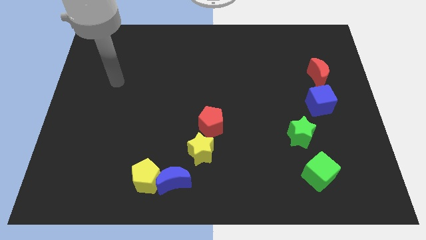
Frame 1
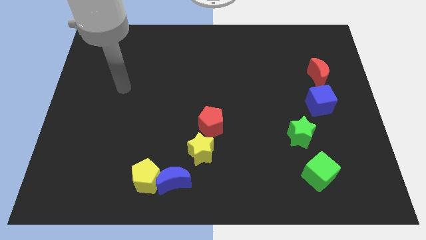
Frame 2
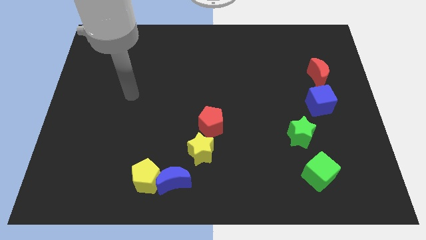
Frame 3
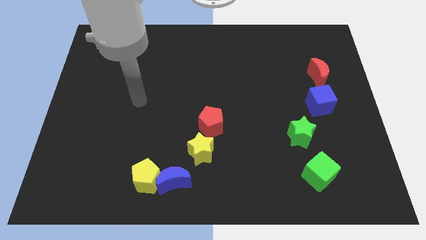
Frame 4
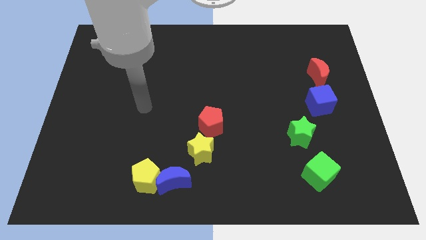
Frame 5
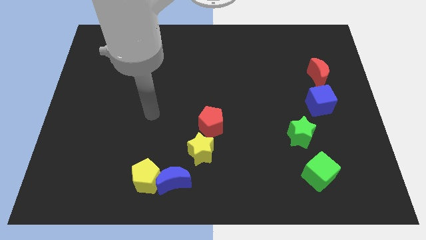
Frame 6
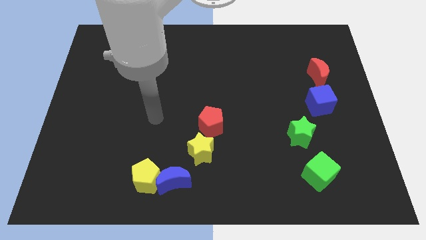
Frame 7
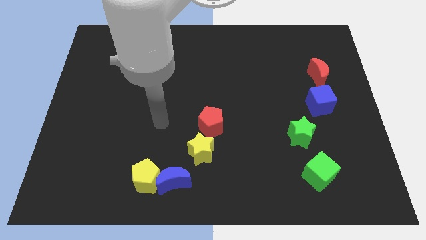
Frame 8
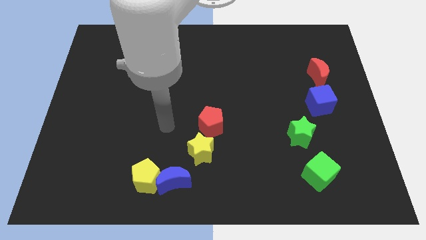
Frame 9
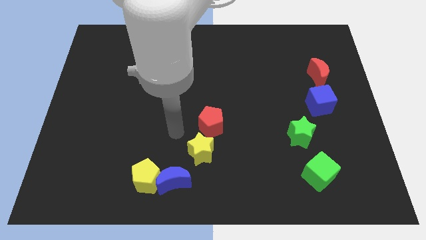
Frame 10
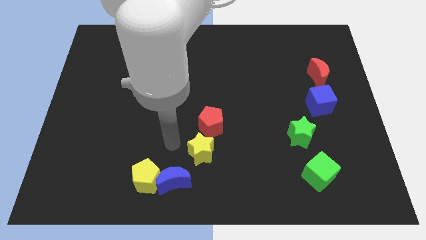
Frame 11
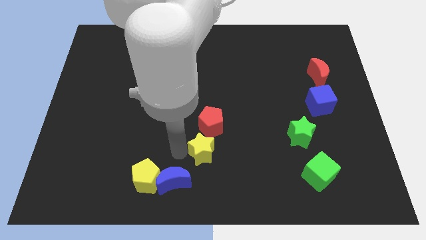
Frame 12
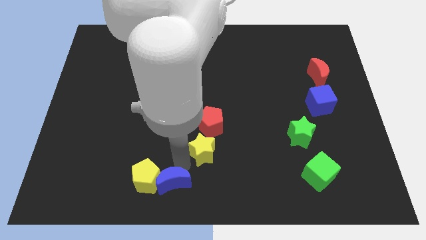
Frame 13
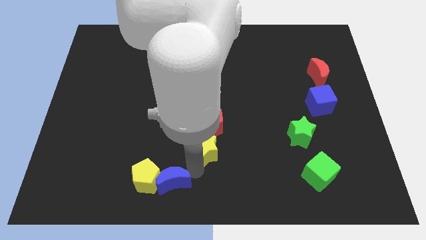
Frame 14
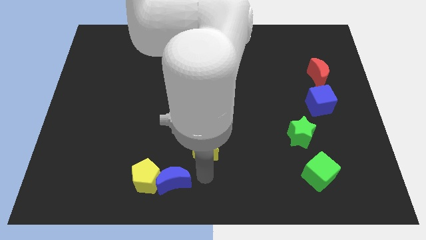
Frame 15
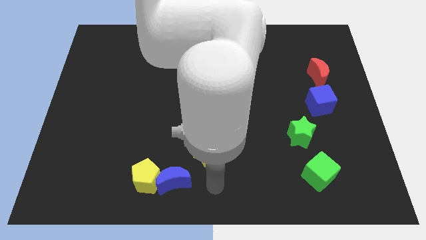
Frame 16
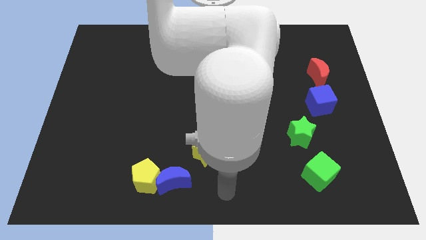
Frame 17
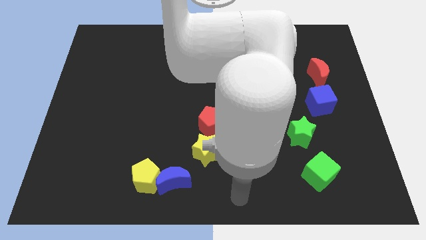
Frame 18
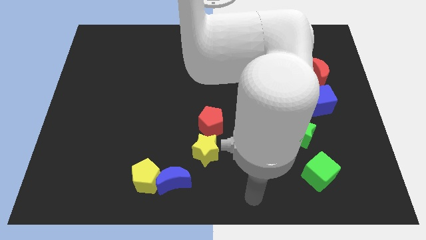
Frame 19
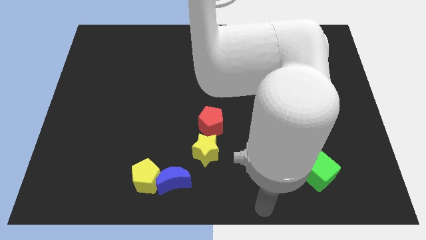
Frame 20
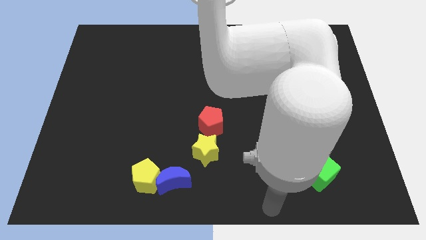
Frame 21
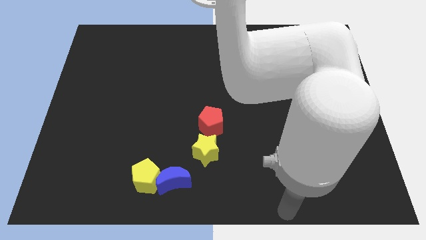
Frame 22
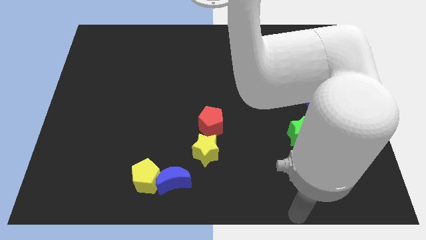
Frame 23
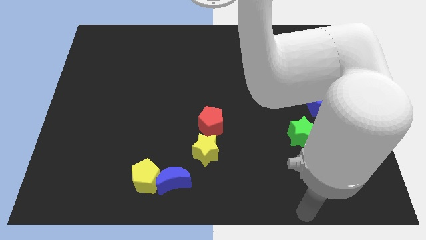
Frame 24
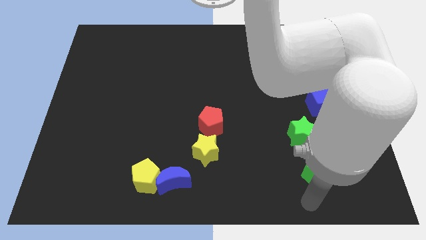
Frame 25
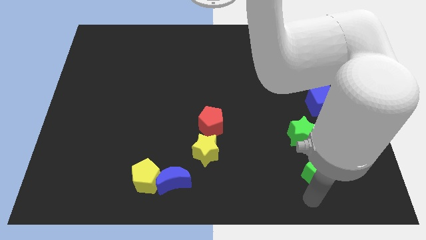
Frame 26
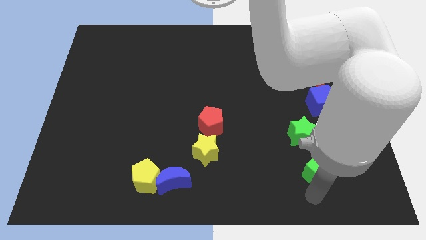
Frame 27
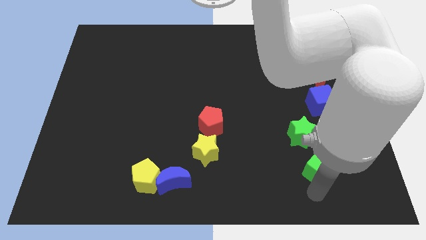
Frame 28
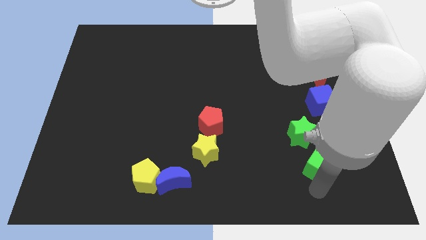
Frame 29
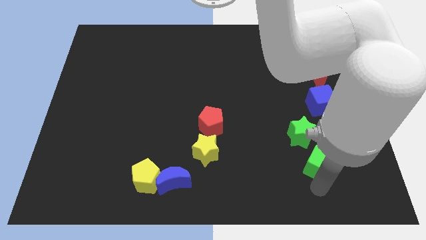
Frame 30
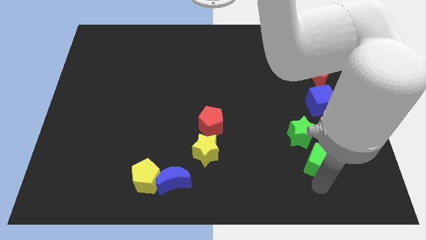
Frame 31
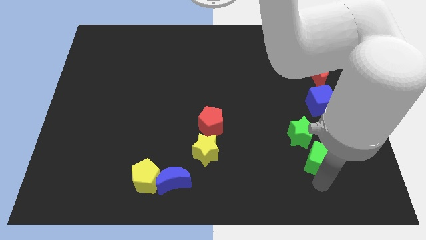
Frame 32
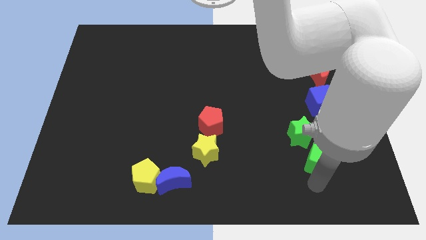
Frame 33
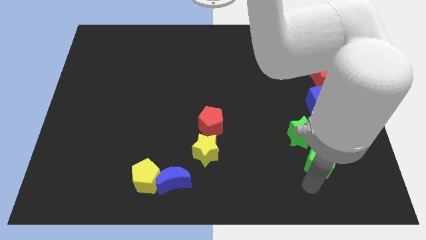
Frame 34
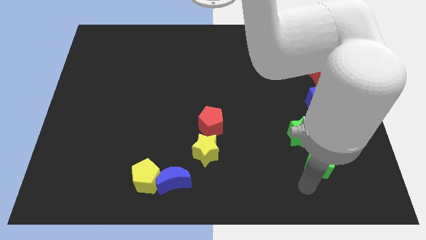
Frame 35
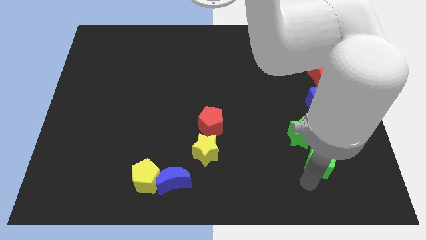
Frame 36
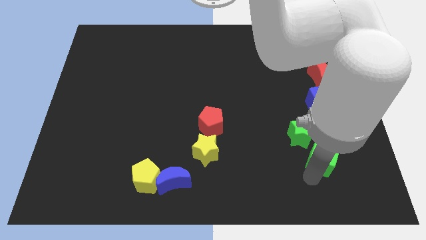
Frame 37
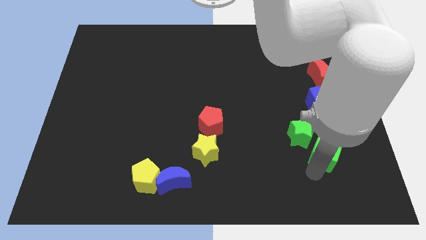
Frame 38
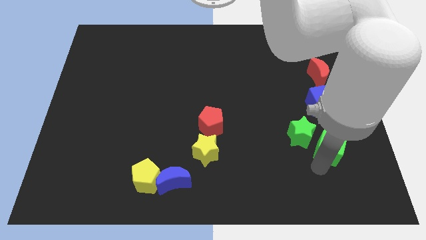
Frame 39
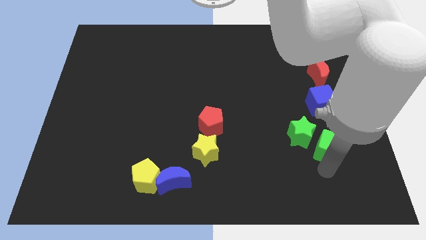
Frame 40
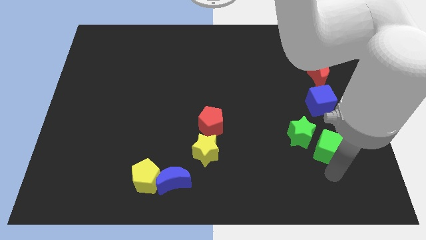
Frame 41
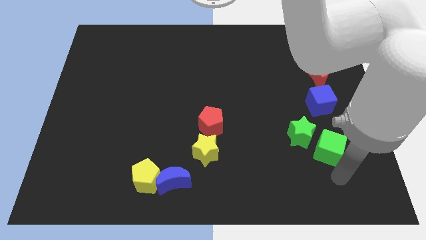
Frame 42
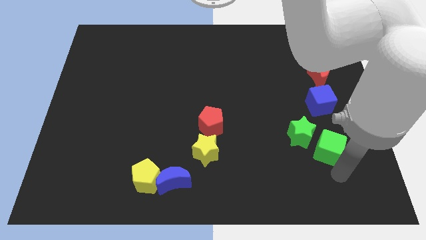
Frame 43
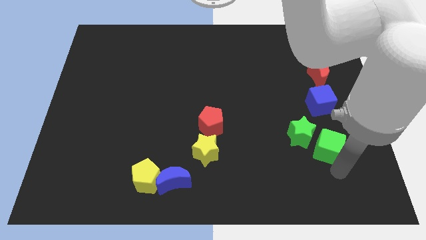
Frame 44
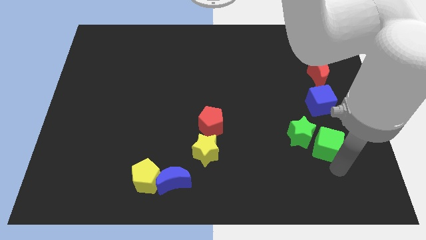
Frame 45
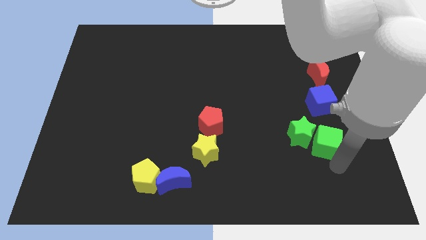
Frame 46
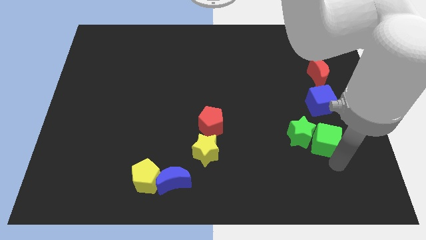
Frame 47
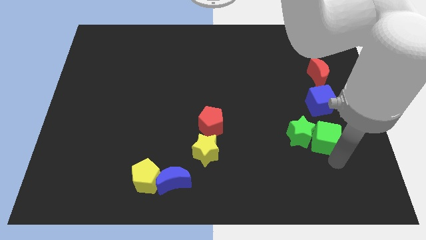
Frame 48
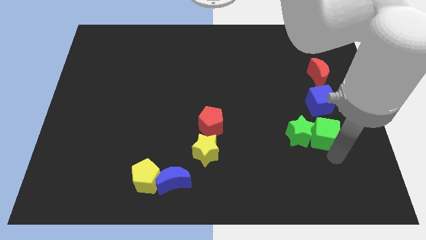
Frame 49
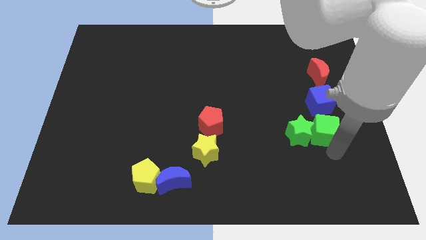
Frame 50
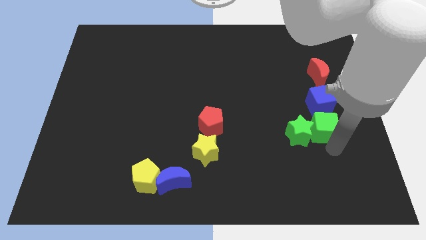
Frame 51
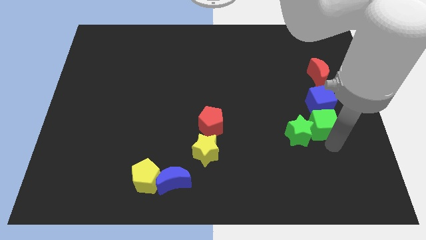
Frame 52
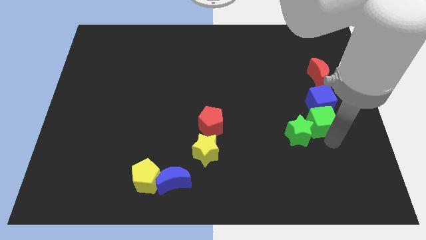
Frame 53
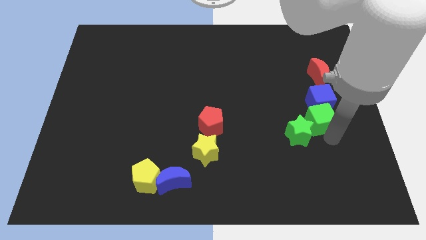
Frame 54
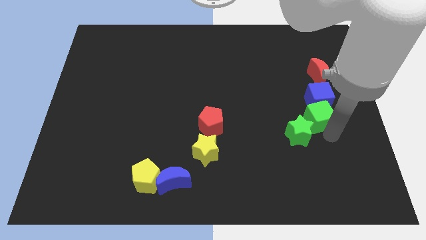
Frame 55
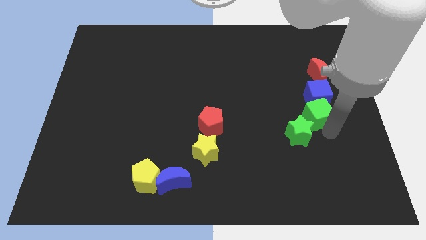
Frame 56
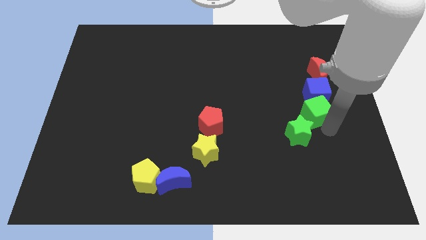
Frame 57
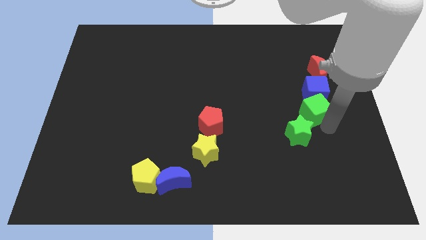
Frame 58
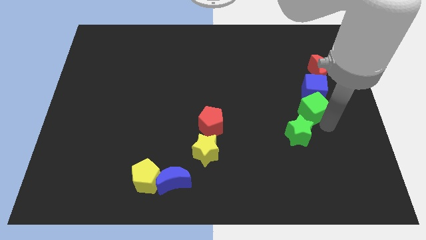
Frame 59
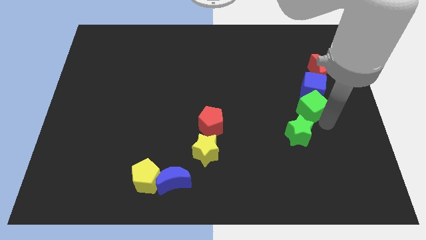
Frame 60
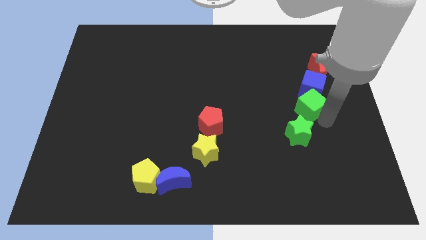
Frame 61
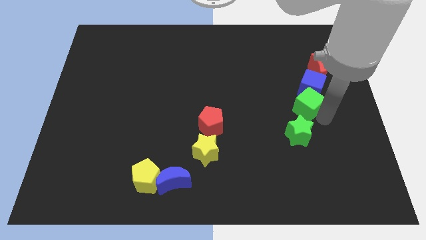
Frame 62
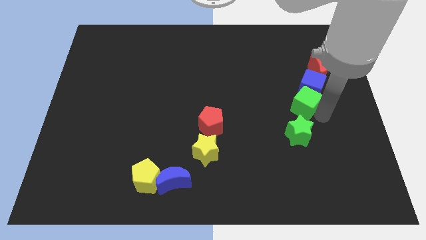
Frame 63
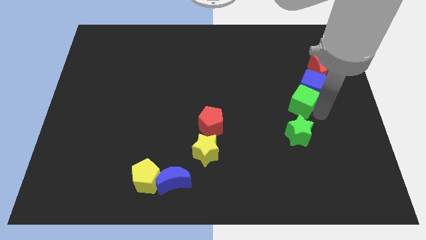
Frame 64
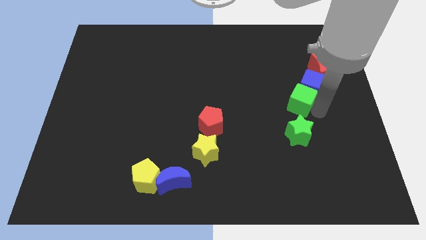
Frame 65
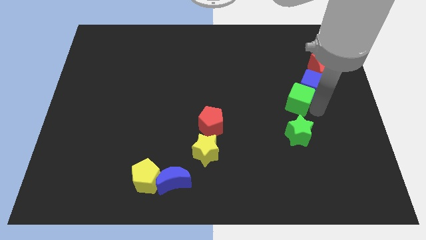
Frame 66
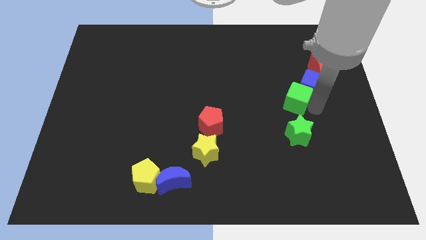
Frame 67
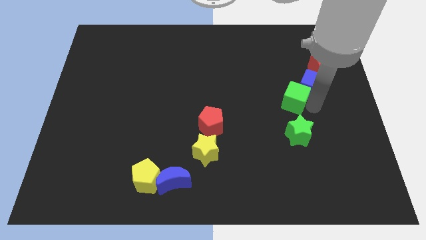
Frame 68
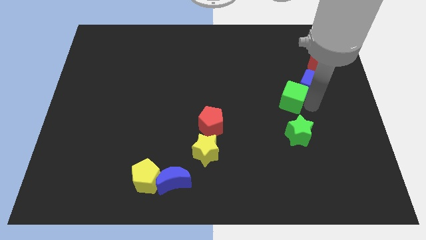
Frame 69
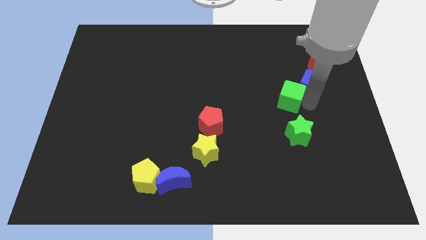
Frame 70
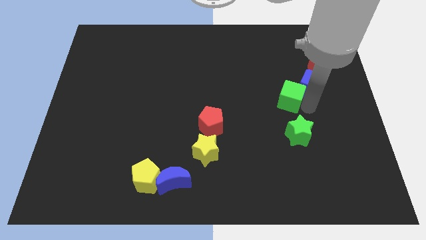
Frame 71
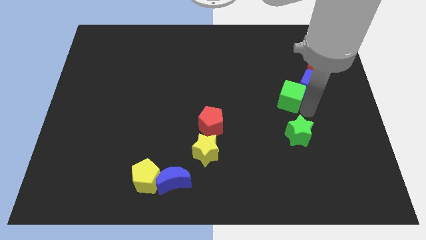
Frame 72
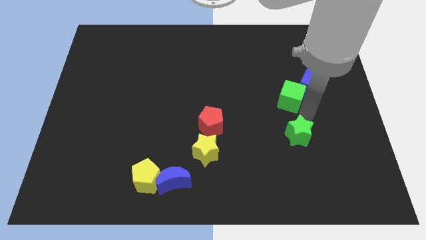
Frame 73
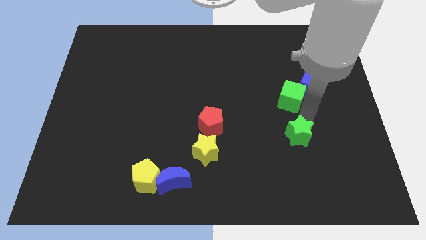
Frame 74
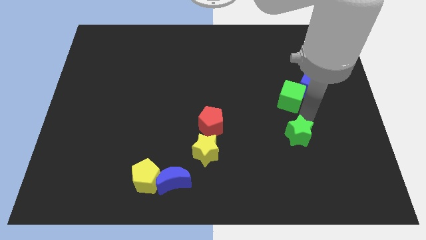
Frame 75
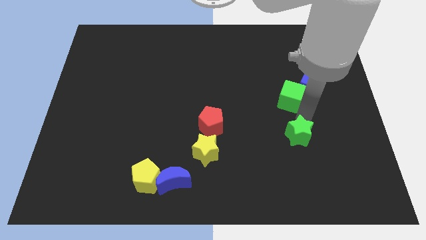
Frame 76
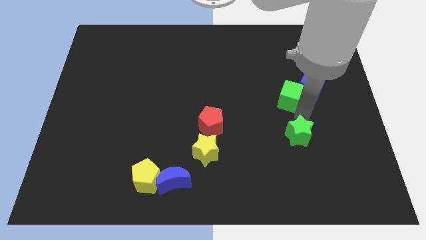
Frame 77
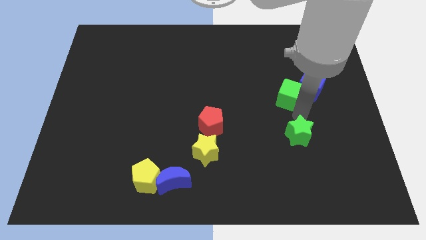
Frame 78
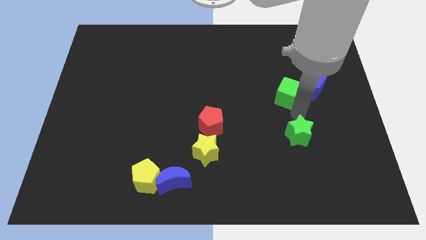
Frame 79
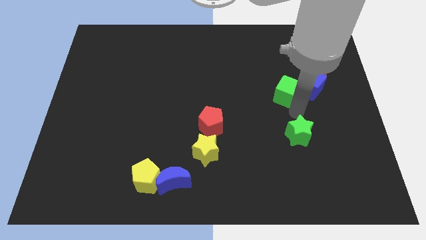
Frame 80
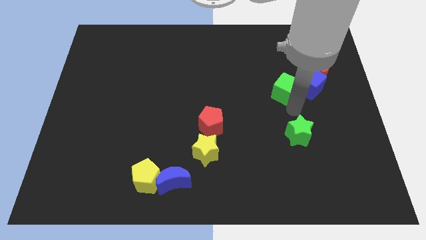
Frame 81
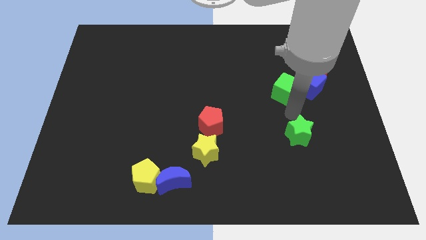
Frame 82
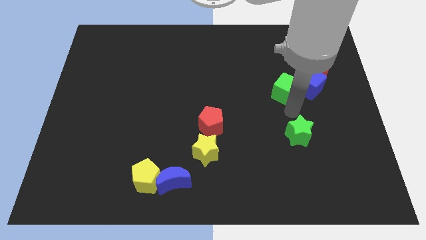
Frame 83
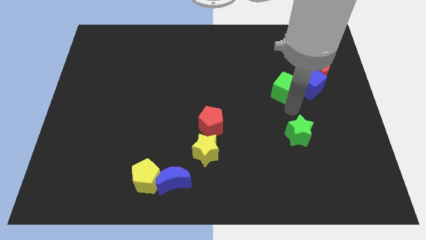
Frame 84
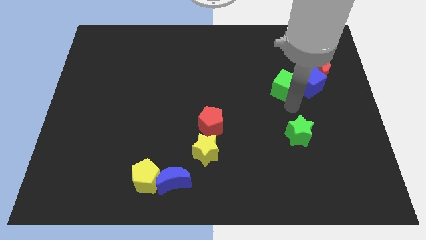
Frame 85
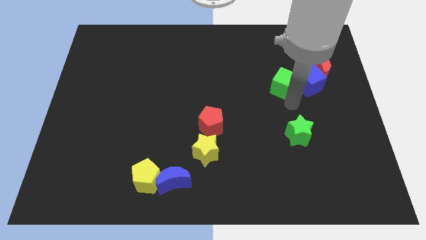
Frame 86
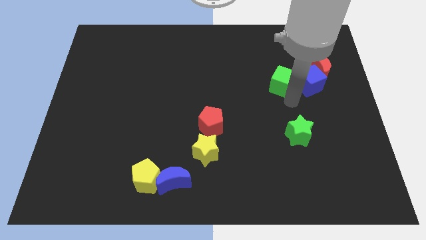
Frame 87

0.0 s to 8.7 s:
move the green cube to the left side of the red moon
